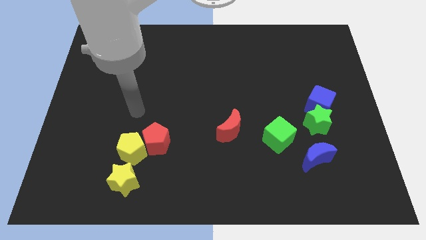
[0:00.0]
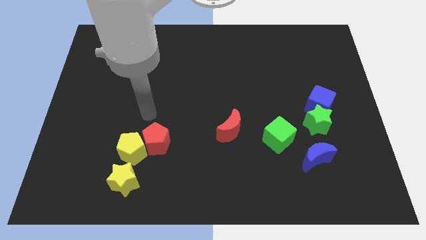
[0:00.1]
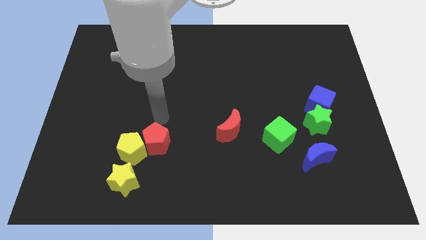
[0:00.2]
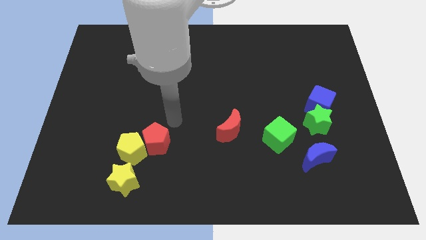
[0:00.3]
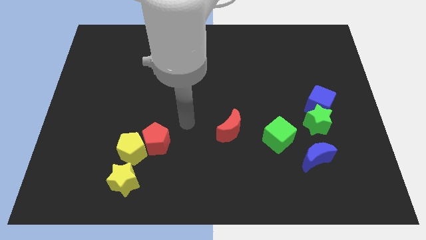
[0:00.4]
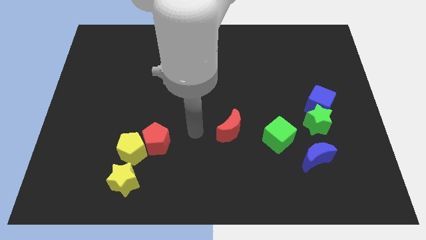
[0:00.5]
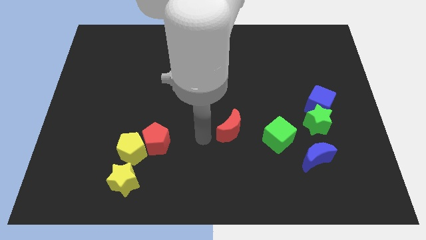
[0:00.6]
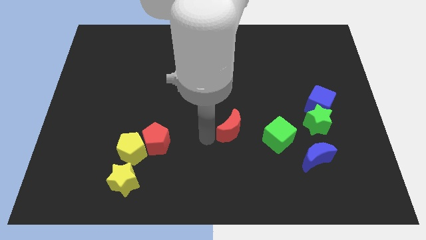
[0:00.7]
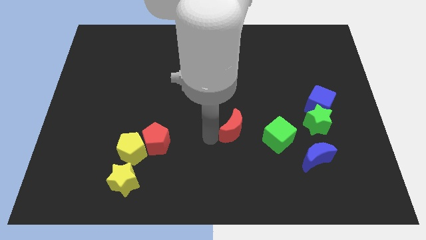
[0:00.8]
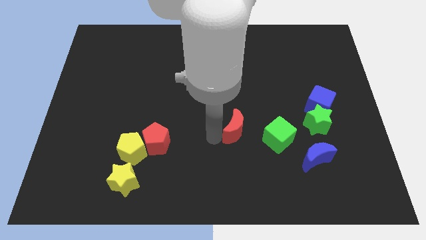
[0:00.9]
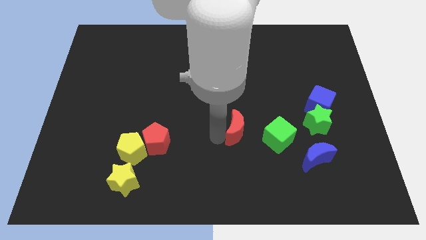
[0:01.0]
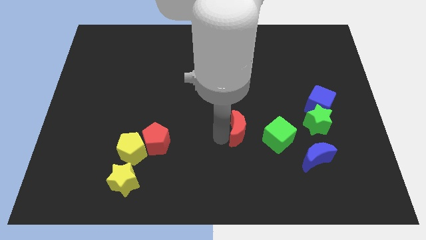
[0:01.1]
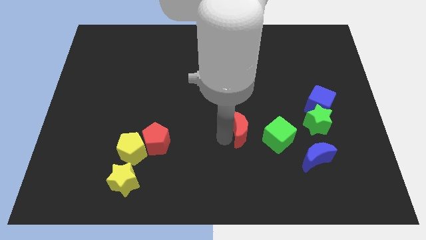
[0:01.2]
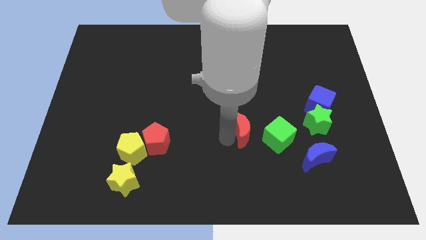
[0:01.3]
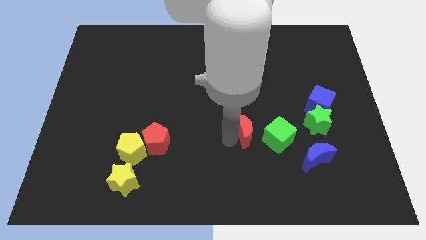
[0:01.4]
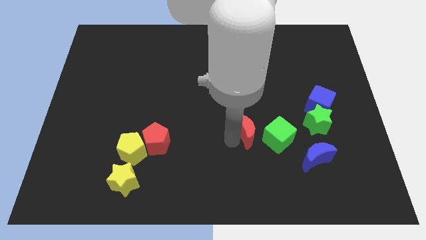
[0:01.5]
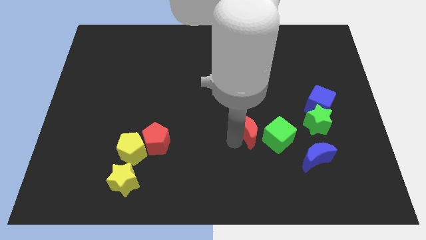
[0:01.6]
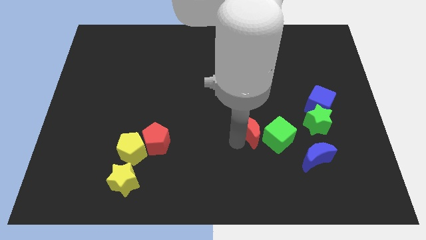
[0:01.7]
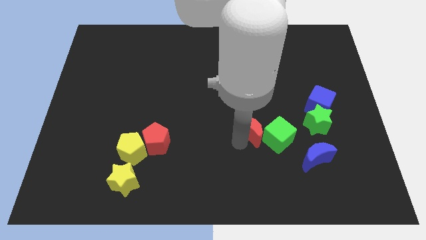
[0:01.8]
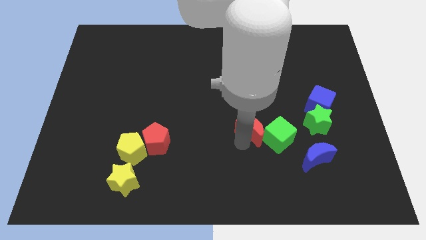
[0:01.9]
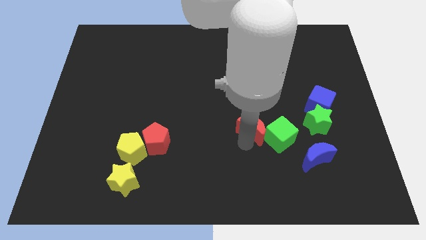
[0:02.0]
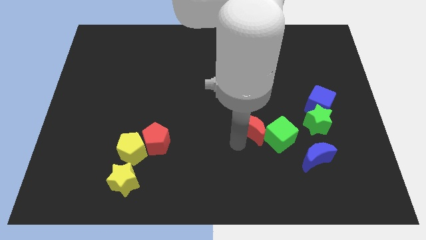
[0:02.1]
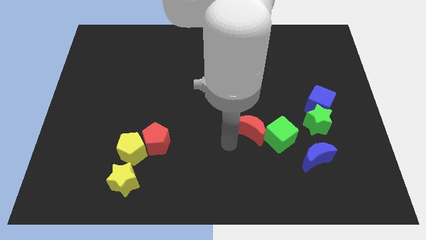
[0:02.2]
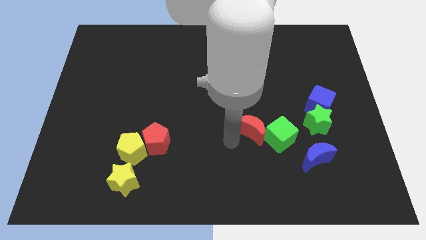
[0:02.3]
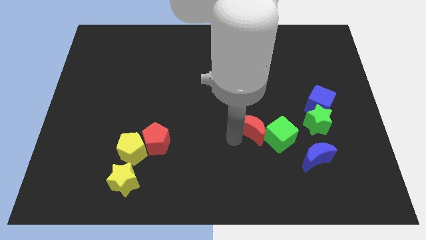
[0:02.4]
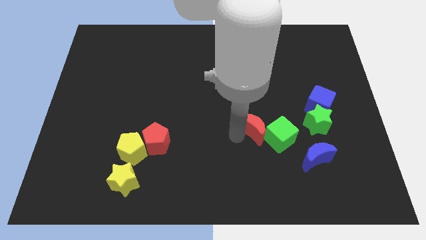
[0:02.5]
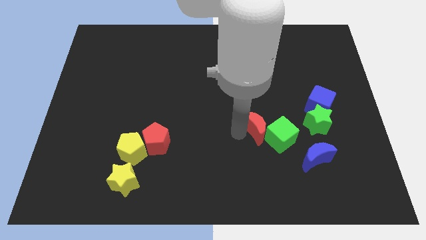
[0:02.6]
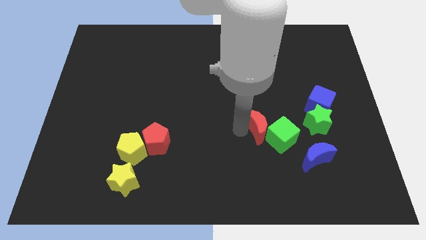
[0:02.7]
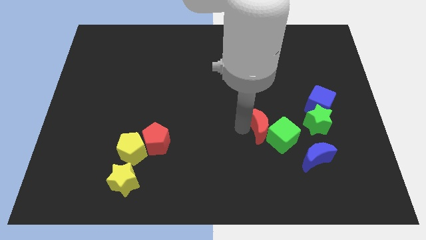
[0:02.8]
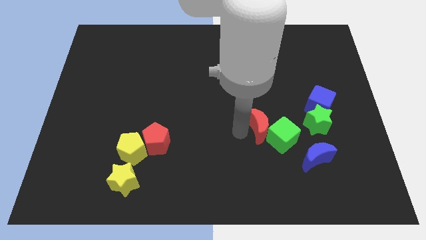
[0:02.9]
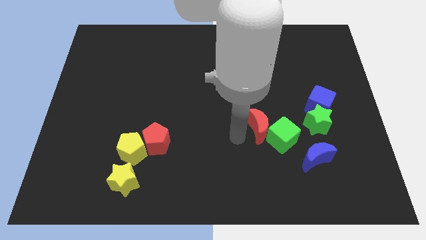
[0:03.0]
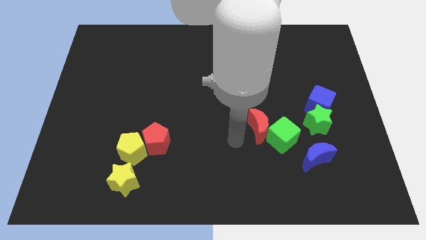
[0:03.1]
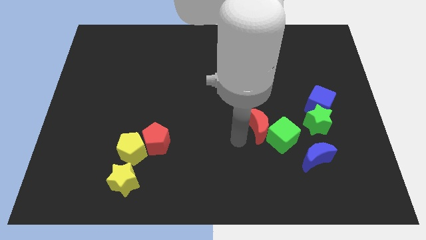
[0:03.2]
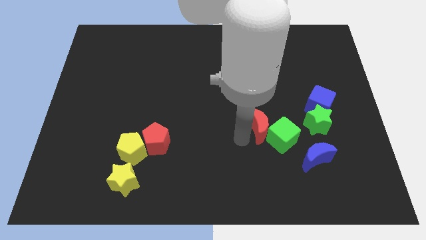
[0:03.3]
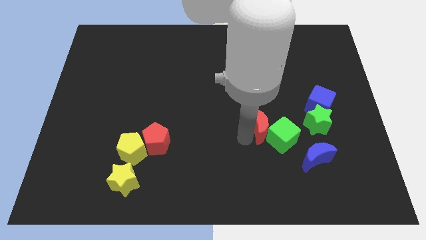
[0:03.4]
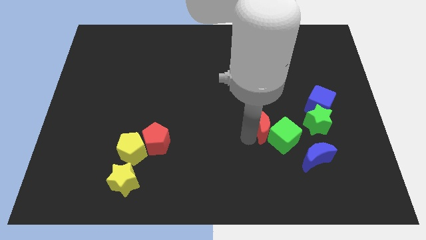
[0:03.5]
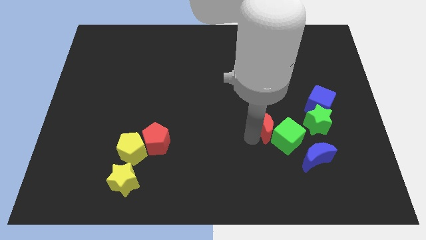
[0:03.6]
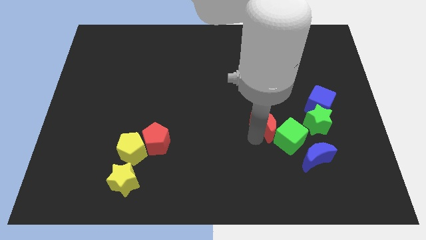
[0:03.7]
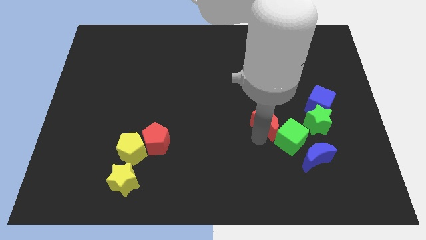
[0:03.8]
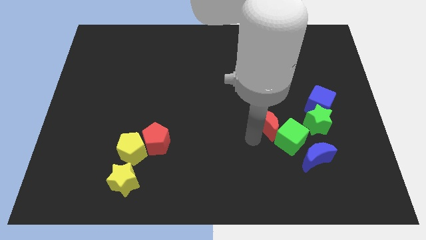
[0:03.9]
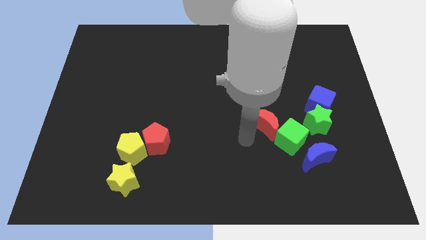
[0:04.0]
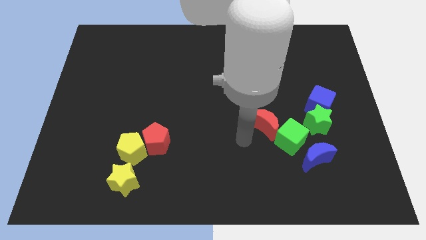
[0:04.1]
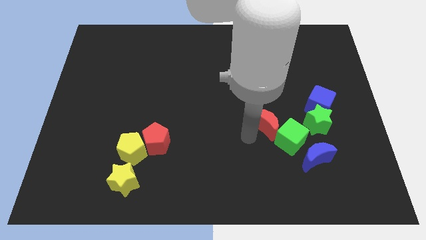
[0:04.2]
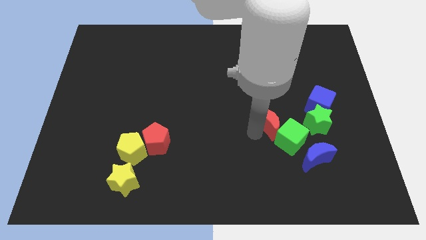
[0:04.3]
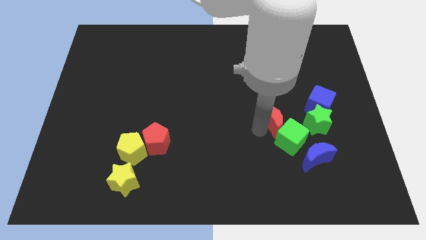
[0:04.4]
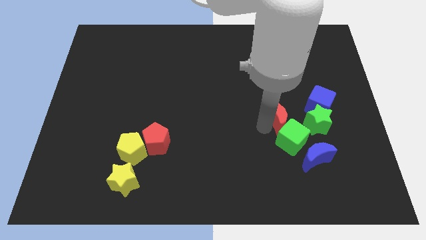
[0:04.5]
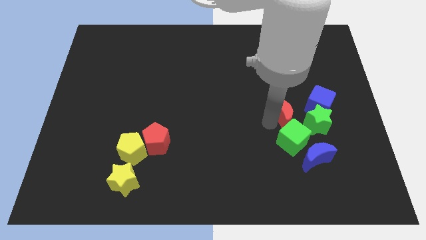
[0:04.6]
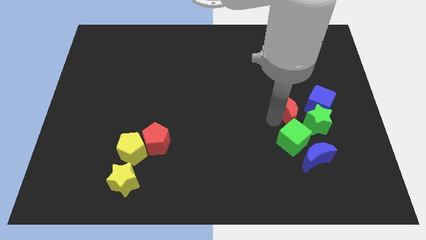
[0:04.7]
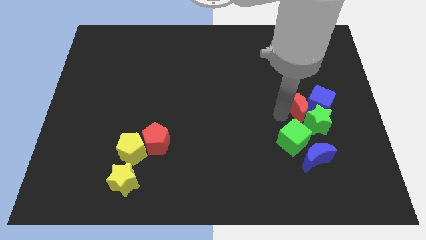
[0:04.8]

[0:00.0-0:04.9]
put the red moon close to the blue cube

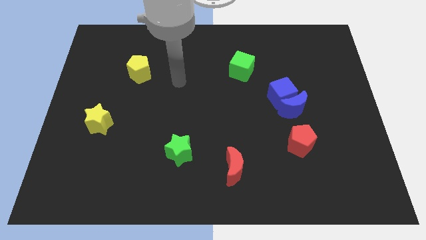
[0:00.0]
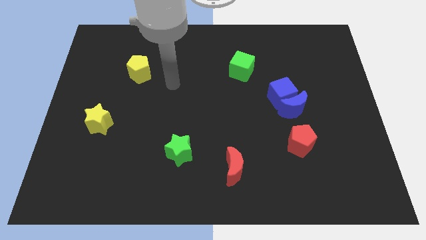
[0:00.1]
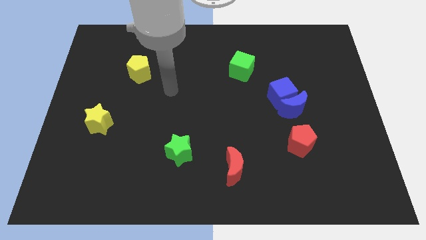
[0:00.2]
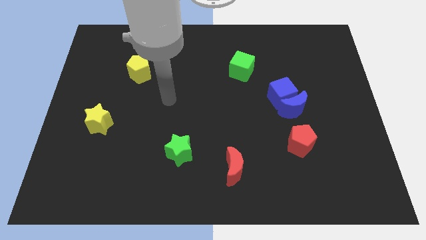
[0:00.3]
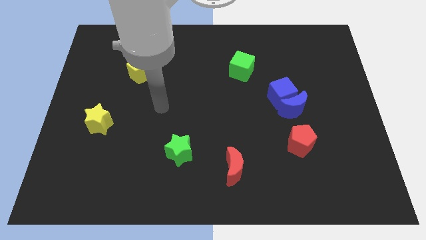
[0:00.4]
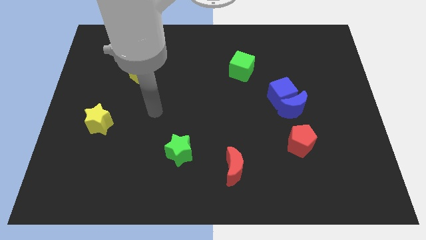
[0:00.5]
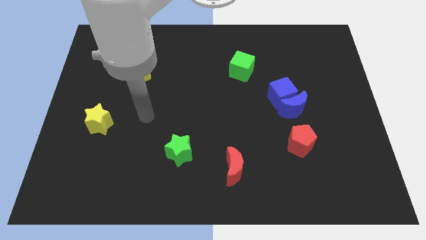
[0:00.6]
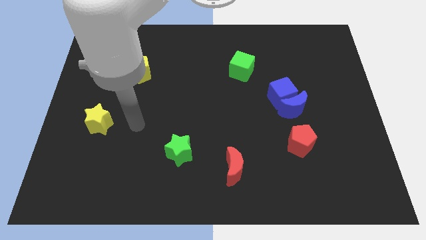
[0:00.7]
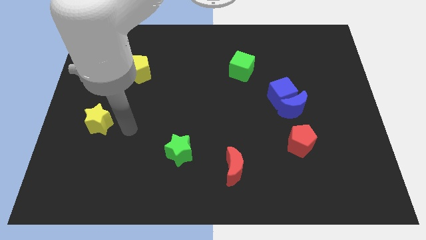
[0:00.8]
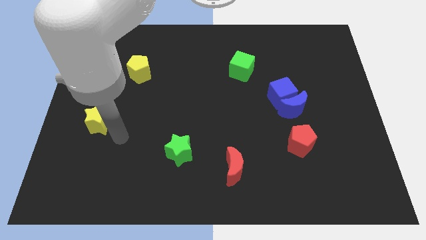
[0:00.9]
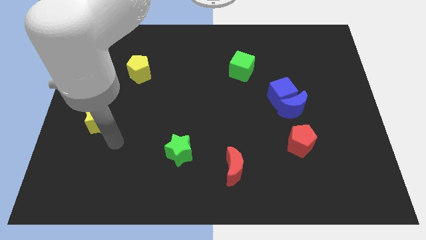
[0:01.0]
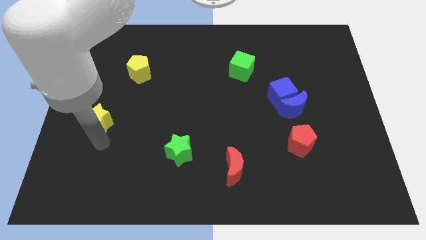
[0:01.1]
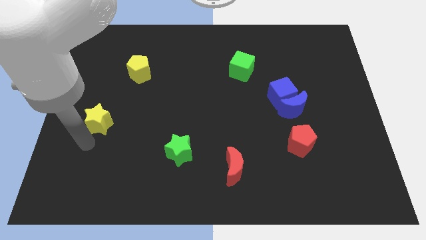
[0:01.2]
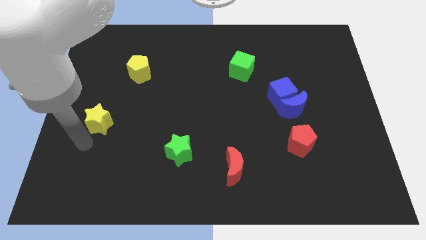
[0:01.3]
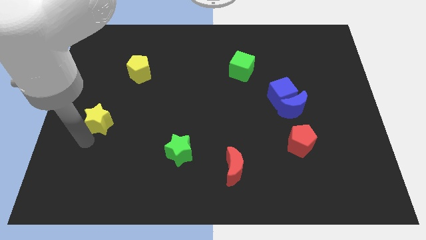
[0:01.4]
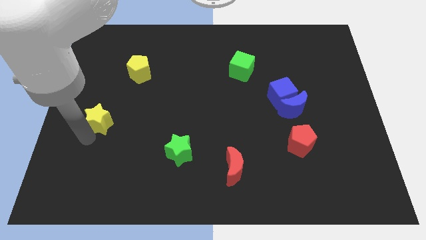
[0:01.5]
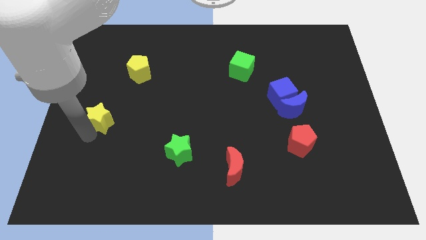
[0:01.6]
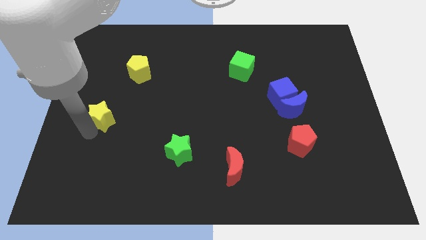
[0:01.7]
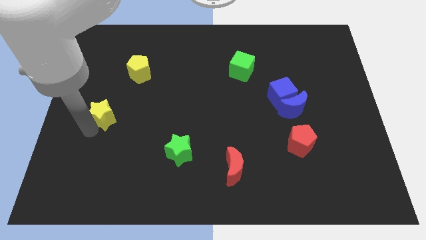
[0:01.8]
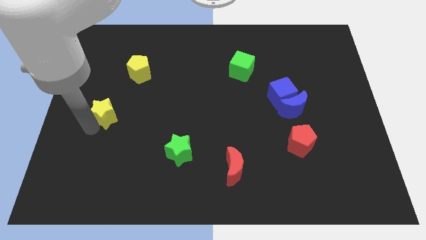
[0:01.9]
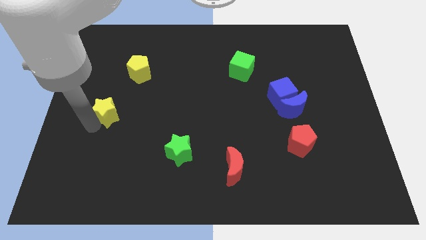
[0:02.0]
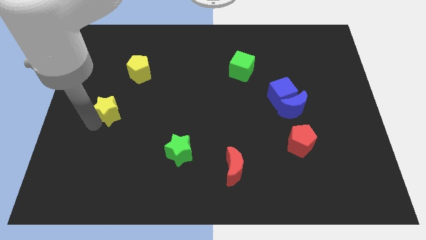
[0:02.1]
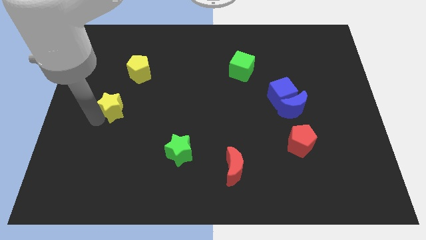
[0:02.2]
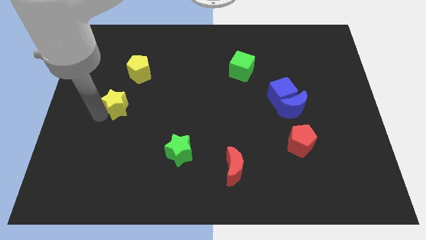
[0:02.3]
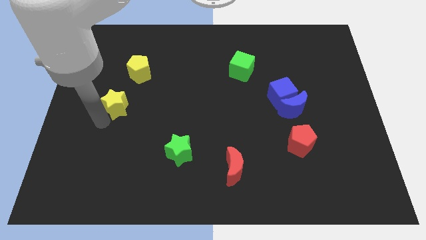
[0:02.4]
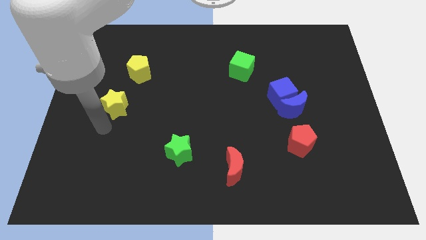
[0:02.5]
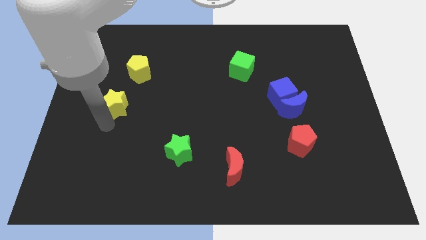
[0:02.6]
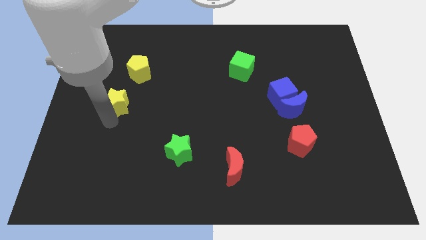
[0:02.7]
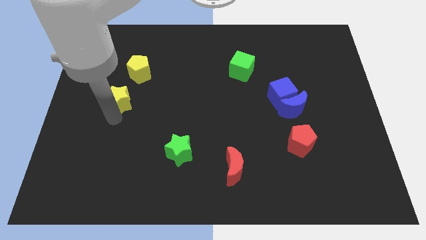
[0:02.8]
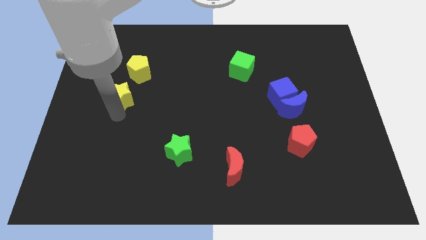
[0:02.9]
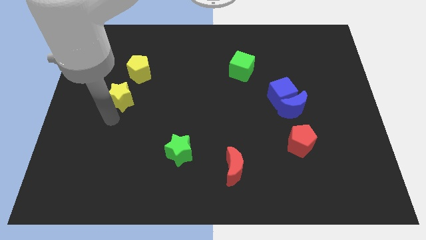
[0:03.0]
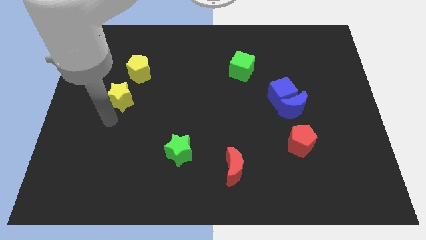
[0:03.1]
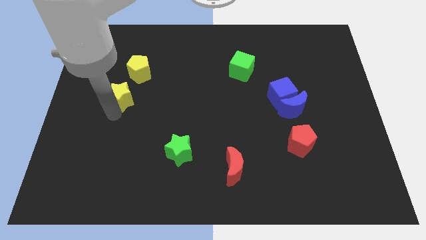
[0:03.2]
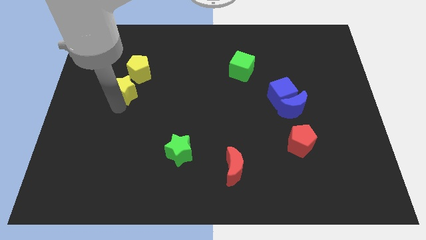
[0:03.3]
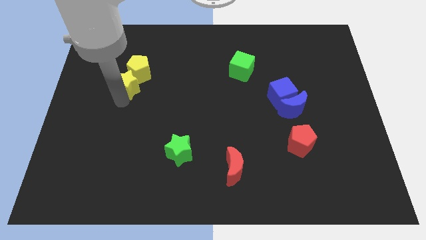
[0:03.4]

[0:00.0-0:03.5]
move the yellow star close to the yellow pentagon
